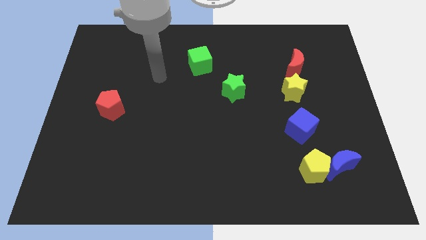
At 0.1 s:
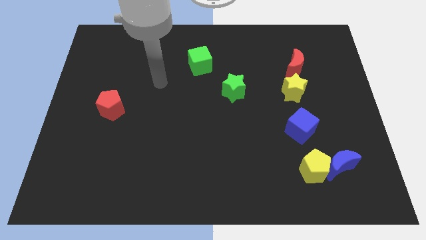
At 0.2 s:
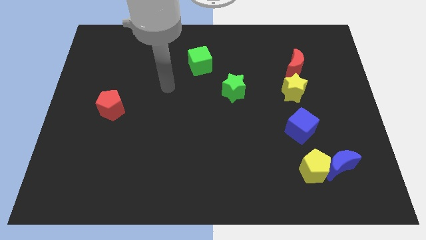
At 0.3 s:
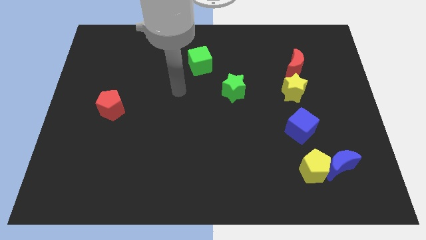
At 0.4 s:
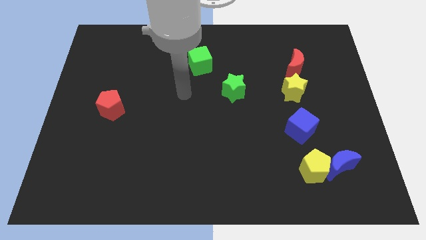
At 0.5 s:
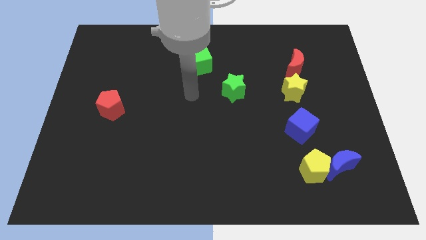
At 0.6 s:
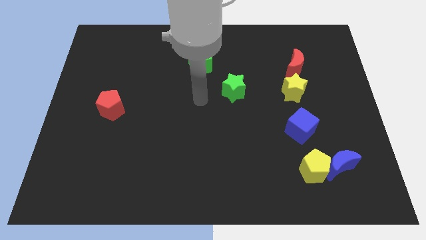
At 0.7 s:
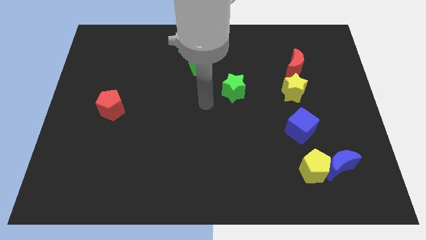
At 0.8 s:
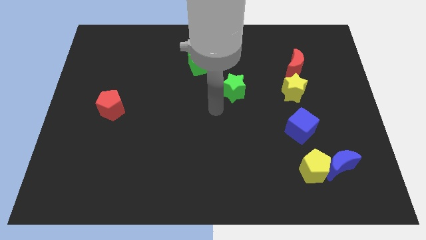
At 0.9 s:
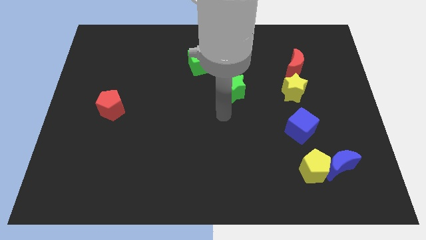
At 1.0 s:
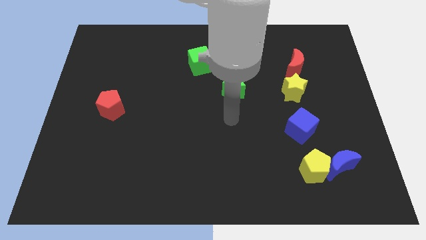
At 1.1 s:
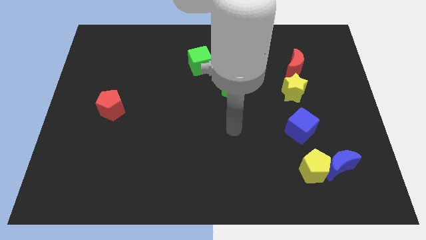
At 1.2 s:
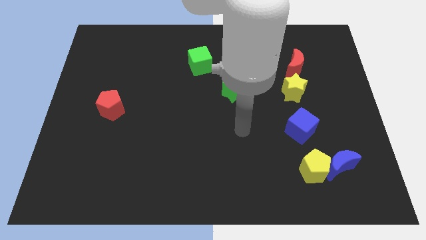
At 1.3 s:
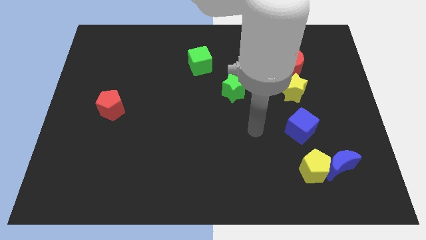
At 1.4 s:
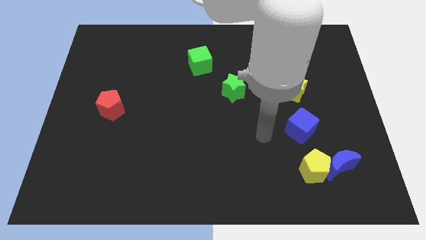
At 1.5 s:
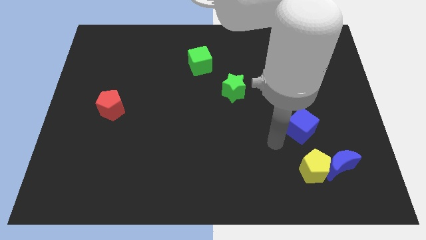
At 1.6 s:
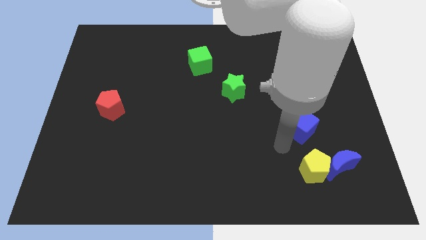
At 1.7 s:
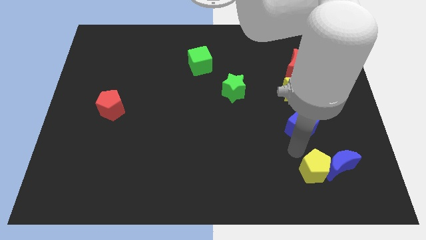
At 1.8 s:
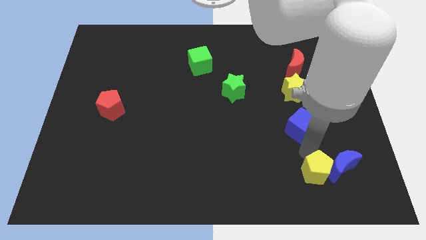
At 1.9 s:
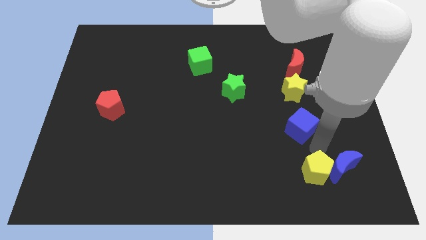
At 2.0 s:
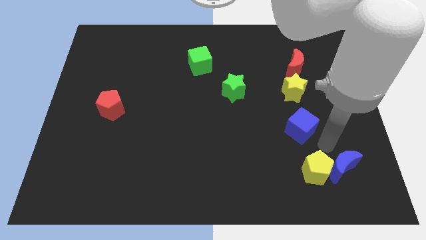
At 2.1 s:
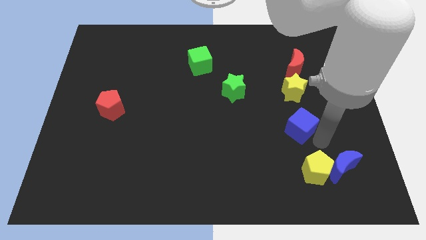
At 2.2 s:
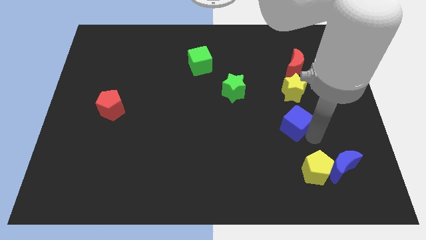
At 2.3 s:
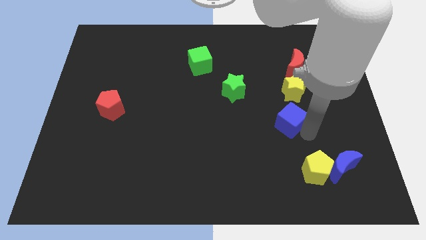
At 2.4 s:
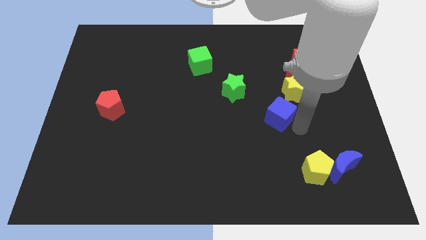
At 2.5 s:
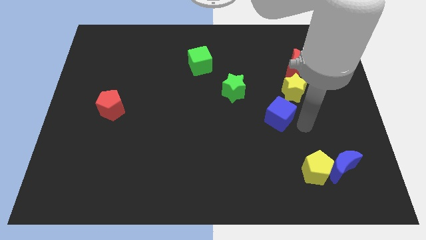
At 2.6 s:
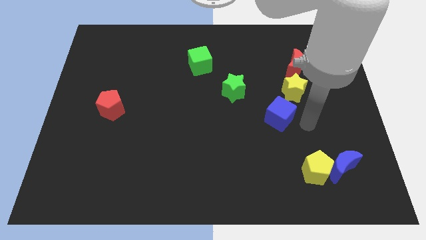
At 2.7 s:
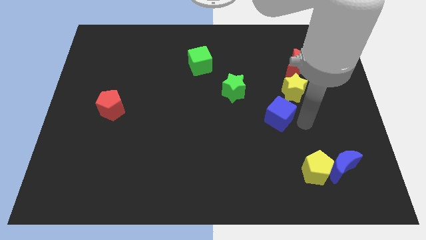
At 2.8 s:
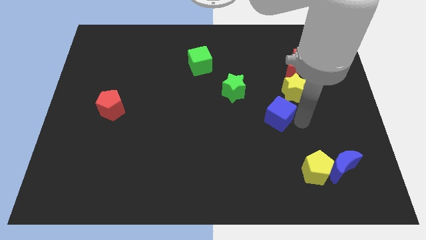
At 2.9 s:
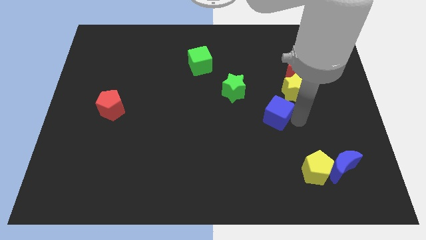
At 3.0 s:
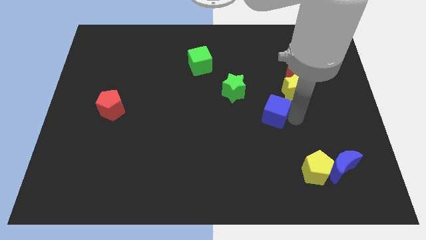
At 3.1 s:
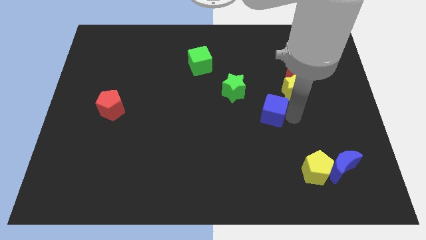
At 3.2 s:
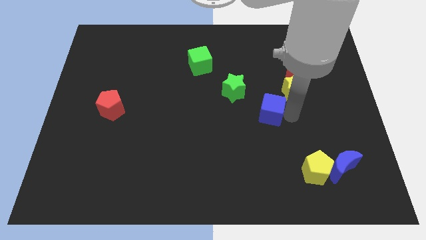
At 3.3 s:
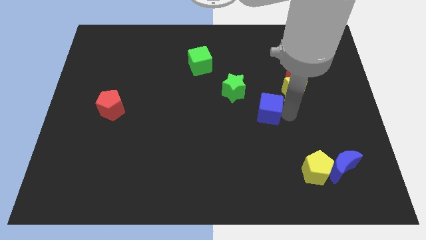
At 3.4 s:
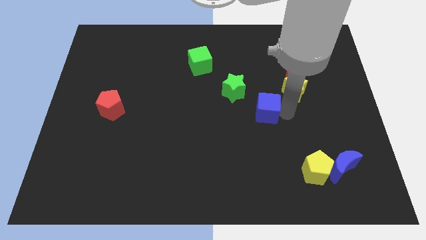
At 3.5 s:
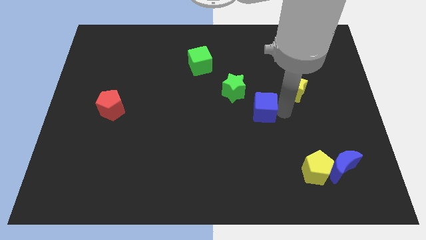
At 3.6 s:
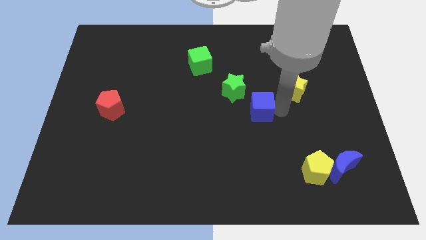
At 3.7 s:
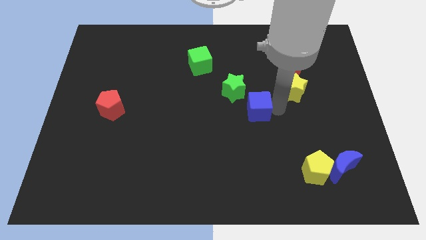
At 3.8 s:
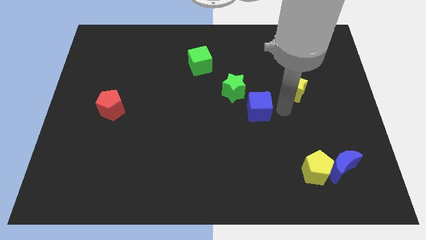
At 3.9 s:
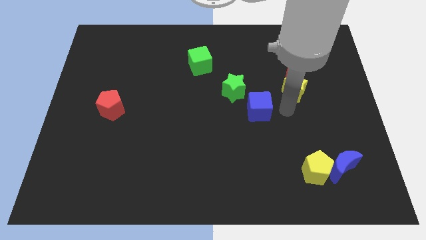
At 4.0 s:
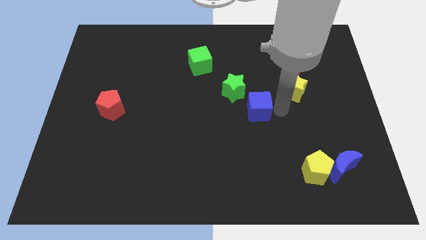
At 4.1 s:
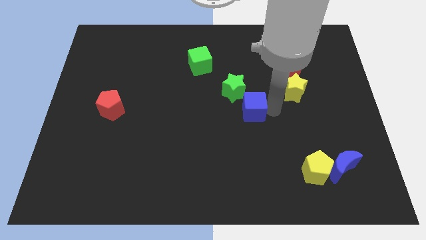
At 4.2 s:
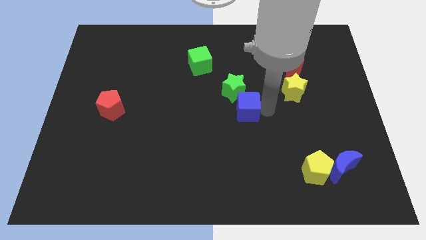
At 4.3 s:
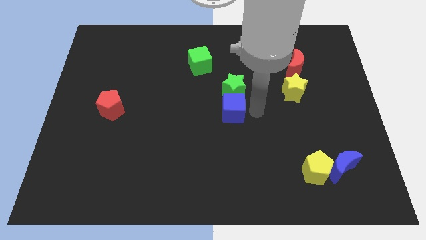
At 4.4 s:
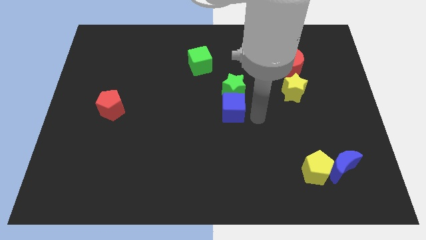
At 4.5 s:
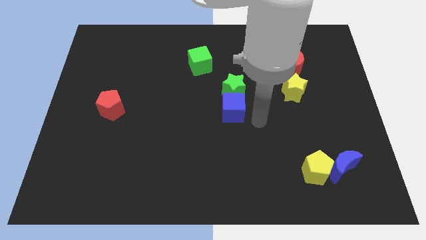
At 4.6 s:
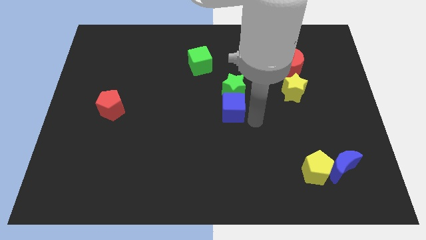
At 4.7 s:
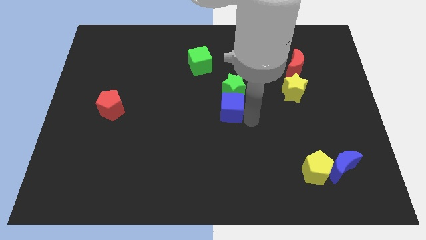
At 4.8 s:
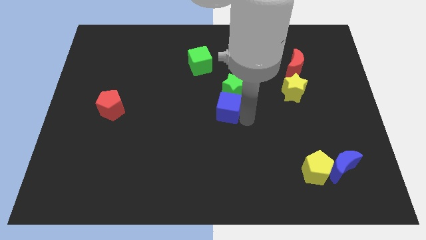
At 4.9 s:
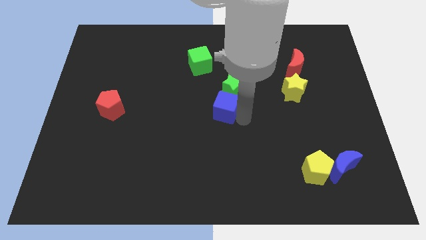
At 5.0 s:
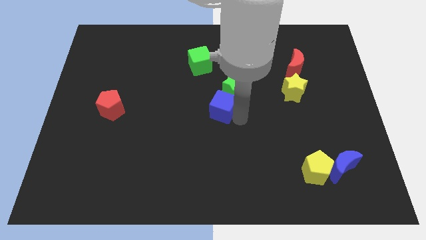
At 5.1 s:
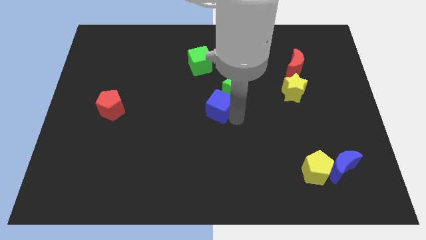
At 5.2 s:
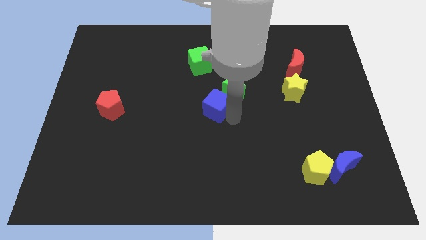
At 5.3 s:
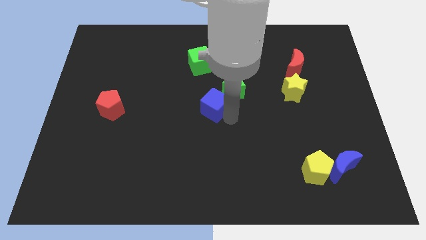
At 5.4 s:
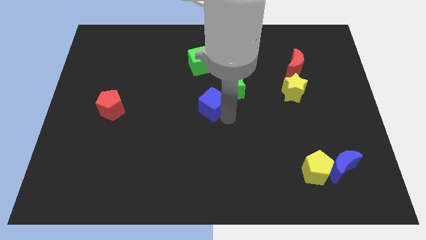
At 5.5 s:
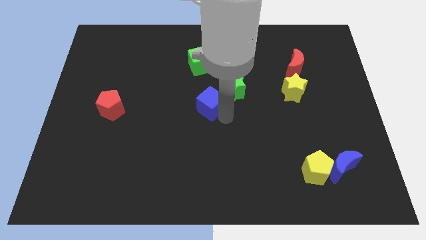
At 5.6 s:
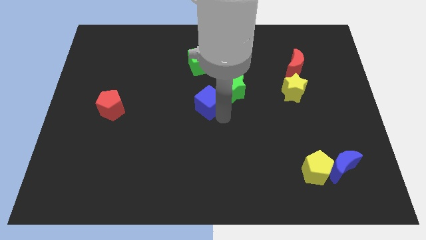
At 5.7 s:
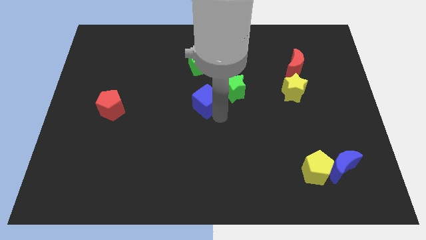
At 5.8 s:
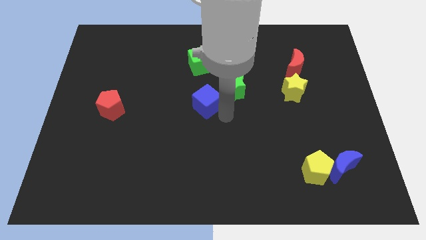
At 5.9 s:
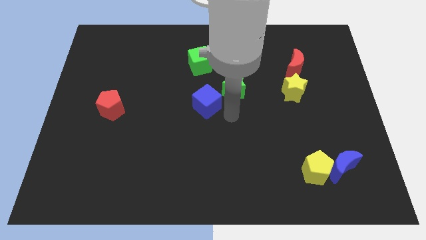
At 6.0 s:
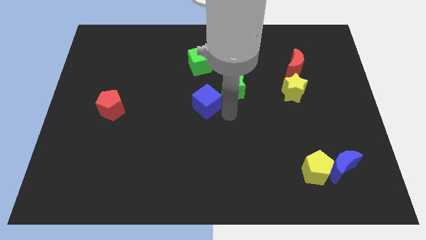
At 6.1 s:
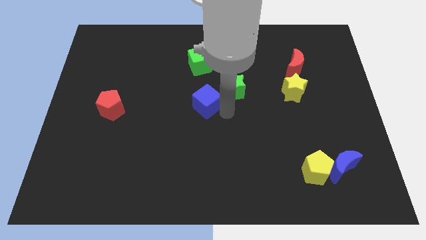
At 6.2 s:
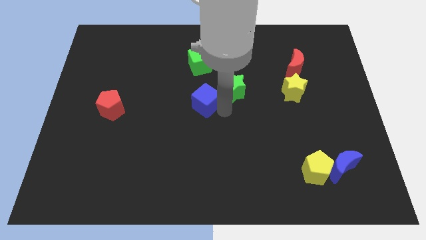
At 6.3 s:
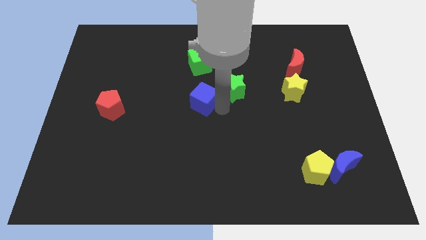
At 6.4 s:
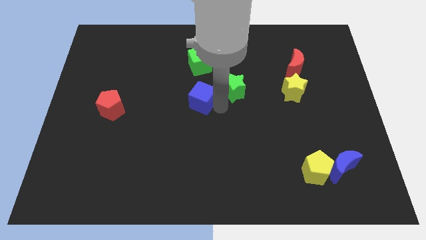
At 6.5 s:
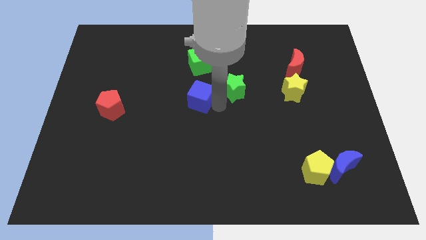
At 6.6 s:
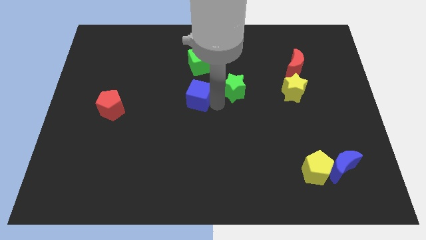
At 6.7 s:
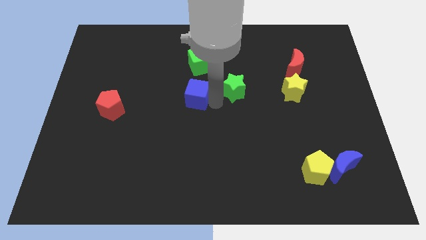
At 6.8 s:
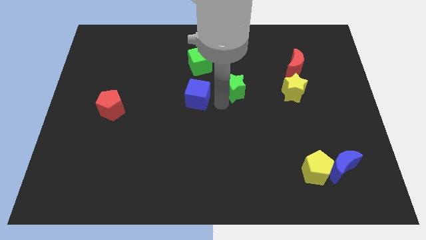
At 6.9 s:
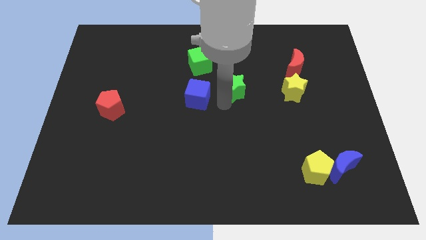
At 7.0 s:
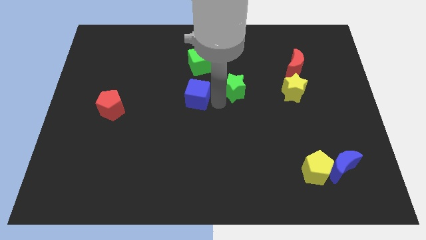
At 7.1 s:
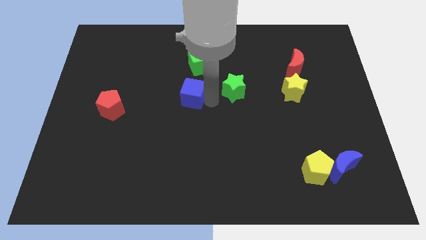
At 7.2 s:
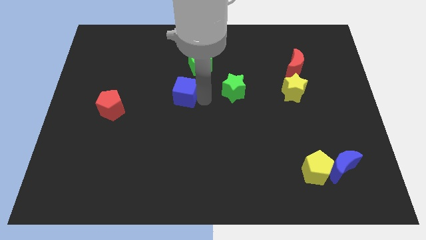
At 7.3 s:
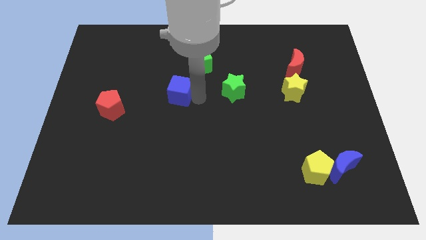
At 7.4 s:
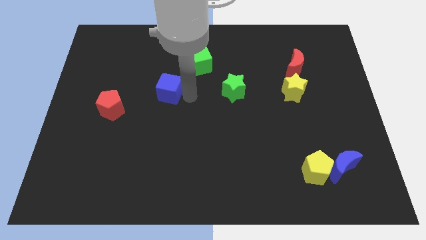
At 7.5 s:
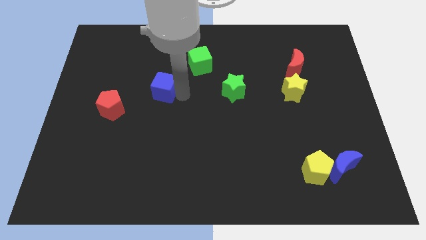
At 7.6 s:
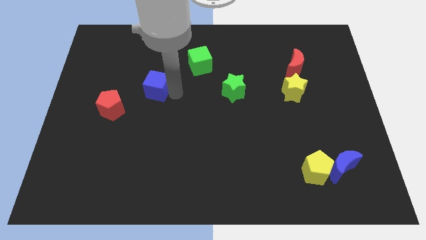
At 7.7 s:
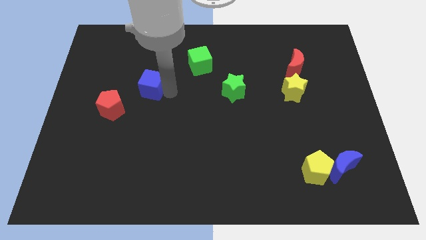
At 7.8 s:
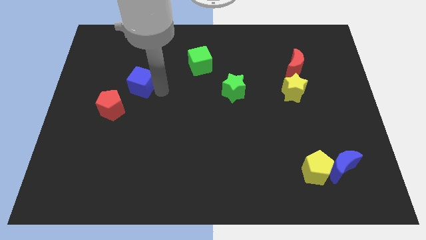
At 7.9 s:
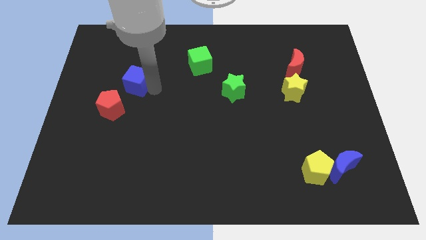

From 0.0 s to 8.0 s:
push the blue cube to the top of the red pentagon
